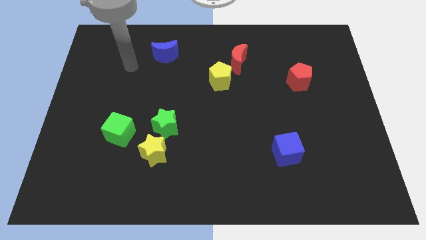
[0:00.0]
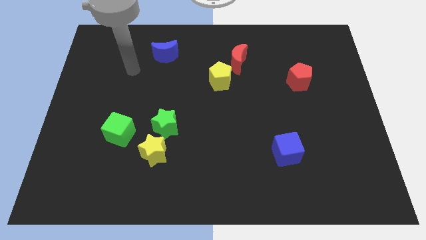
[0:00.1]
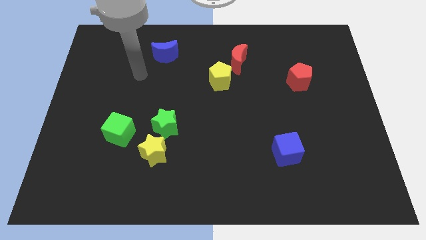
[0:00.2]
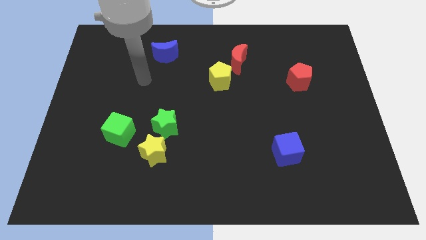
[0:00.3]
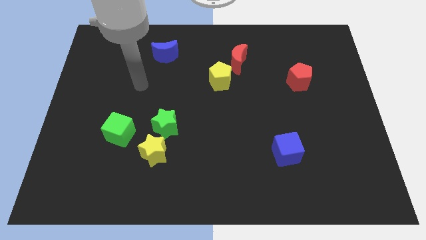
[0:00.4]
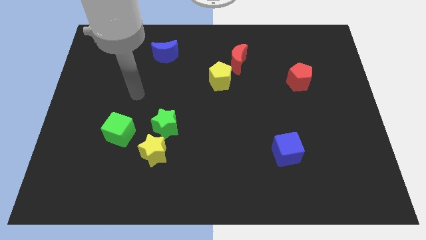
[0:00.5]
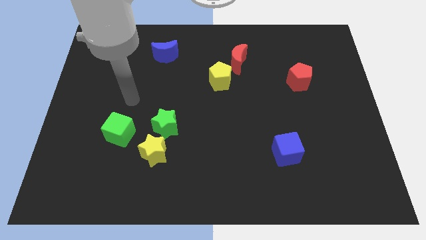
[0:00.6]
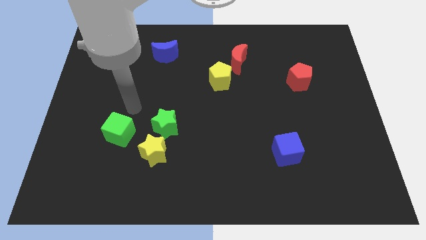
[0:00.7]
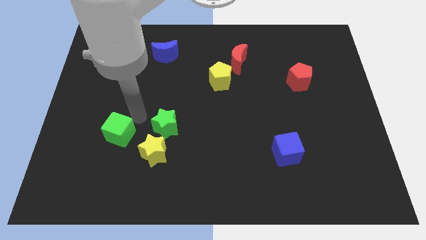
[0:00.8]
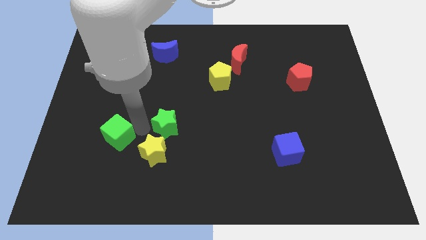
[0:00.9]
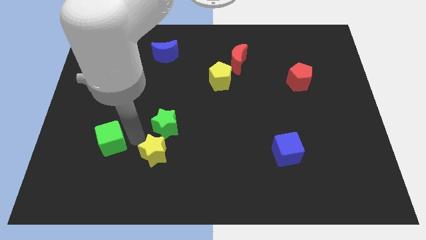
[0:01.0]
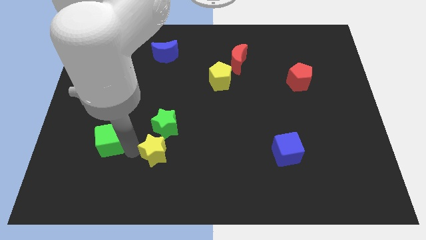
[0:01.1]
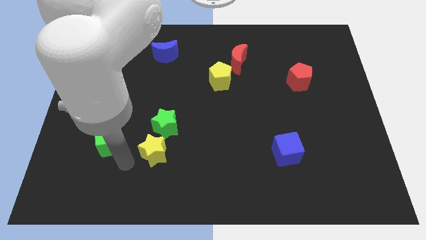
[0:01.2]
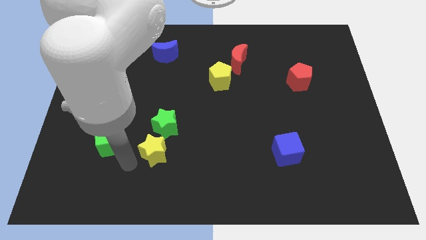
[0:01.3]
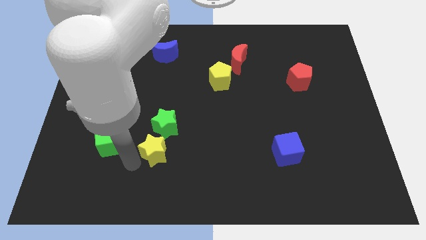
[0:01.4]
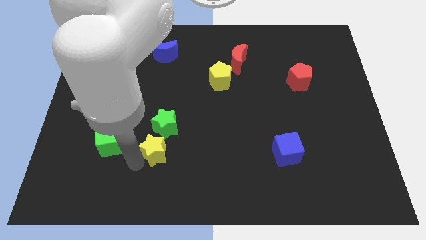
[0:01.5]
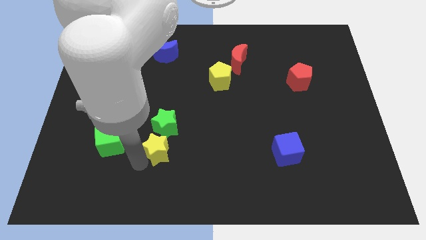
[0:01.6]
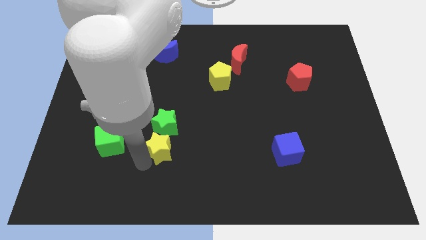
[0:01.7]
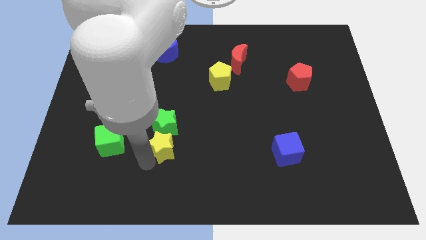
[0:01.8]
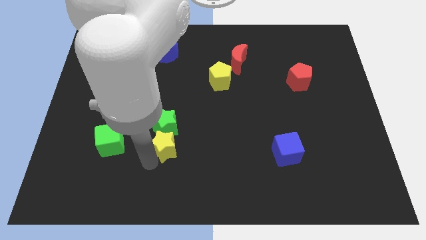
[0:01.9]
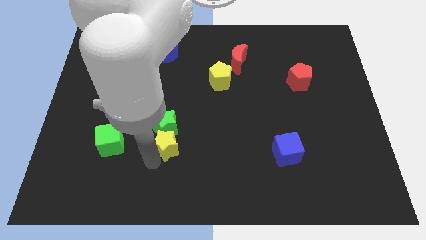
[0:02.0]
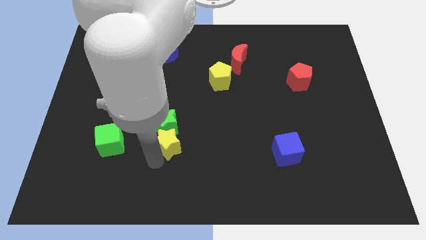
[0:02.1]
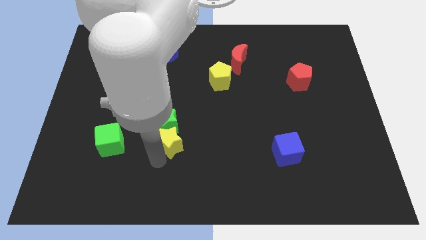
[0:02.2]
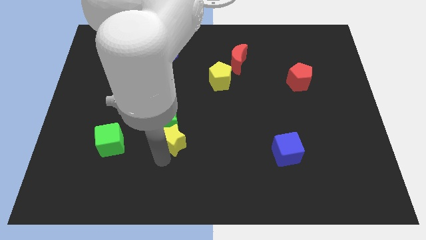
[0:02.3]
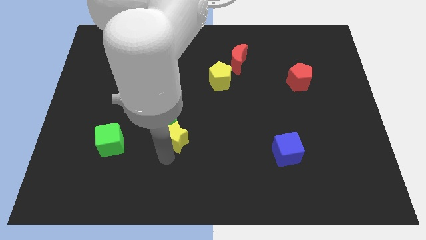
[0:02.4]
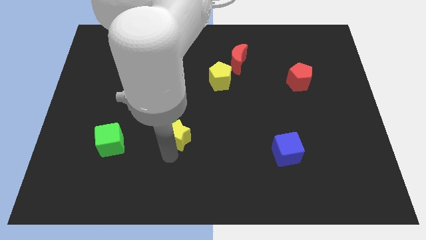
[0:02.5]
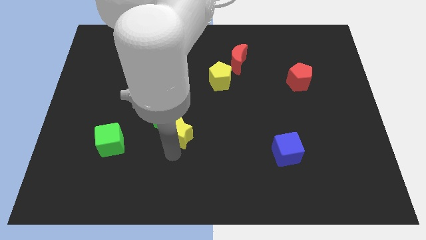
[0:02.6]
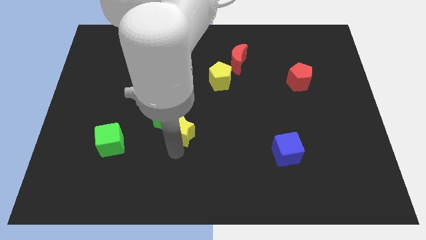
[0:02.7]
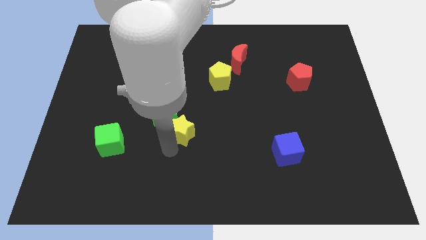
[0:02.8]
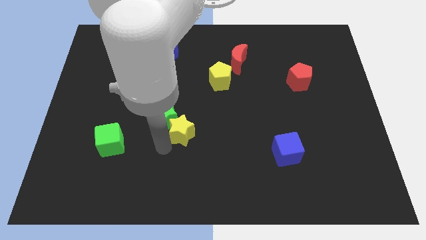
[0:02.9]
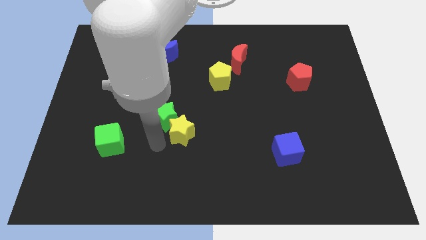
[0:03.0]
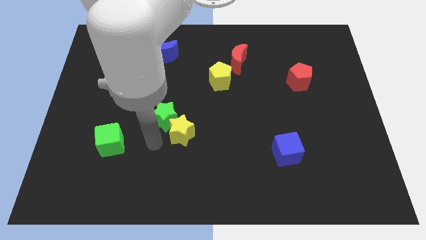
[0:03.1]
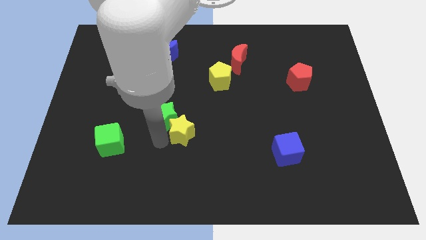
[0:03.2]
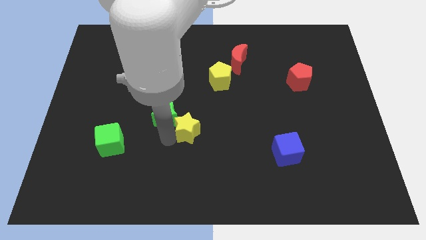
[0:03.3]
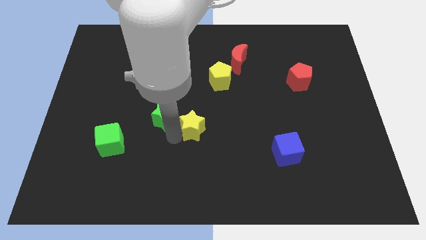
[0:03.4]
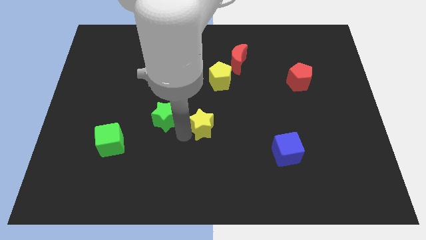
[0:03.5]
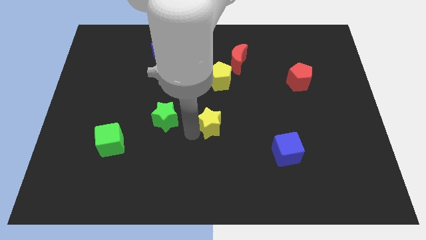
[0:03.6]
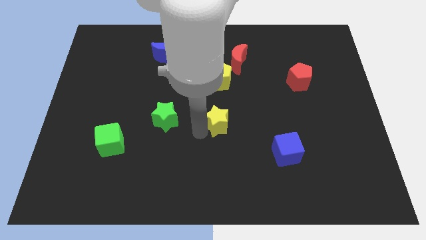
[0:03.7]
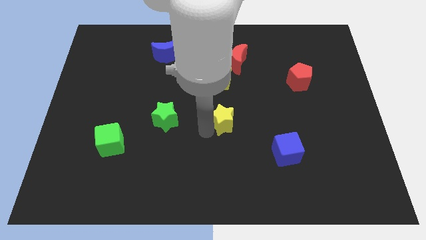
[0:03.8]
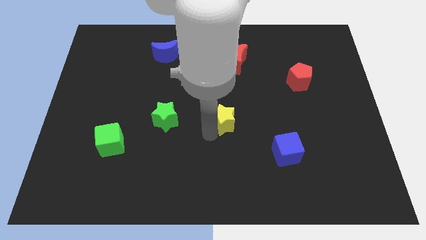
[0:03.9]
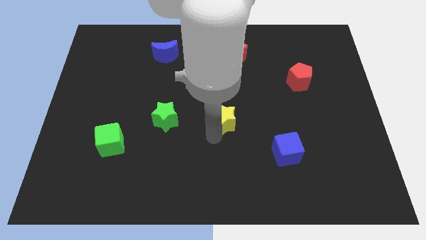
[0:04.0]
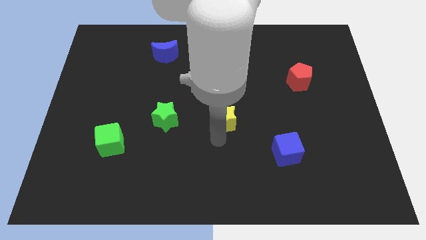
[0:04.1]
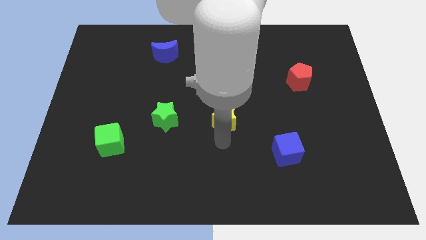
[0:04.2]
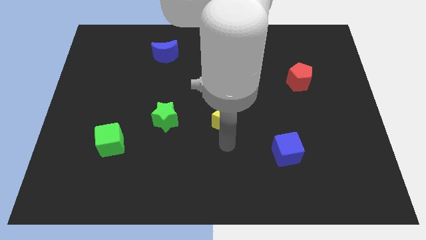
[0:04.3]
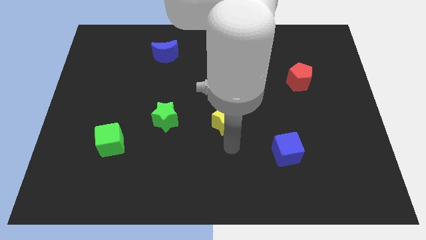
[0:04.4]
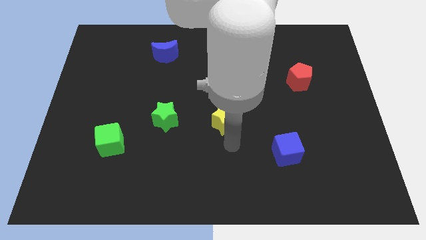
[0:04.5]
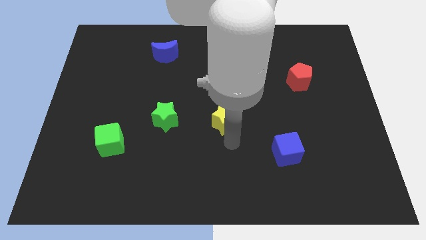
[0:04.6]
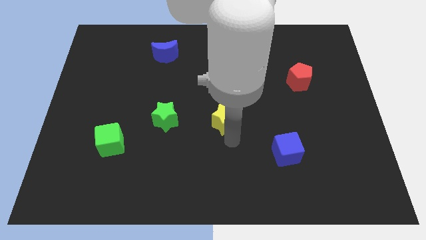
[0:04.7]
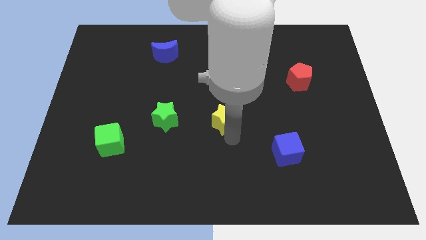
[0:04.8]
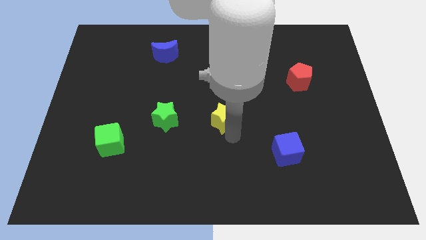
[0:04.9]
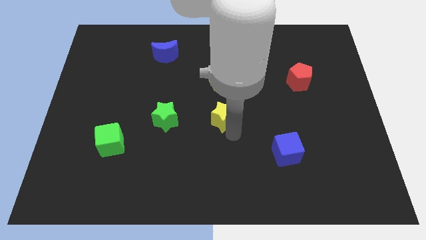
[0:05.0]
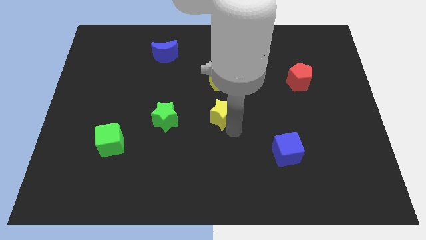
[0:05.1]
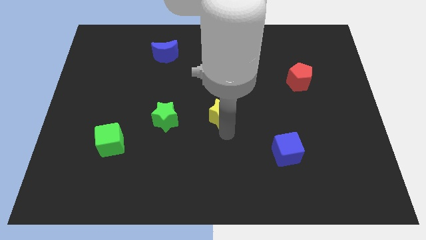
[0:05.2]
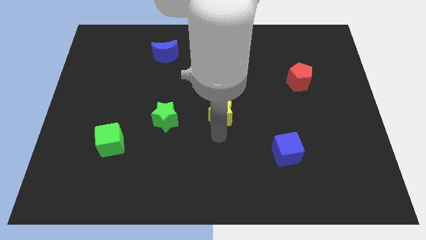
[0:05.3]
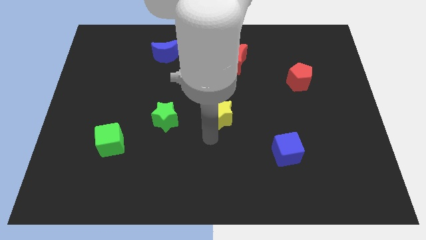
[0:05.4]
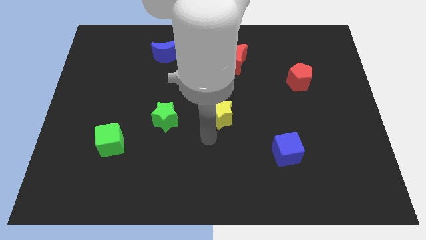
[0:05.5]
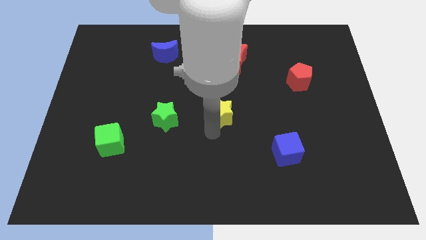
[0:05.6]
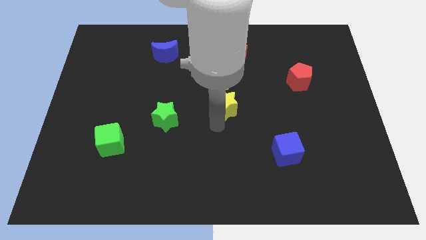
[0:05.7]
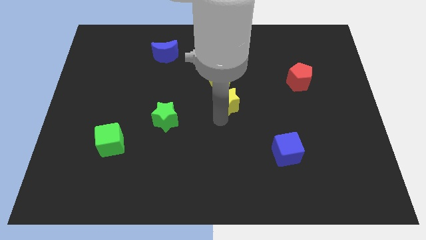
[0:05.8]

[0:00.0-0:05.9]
push the yellow star to the bottom of the red moon

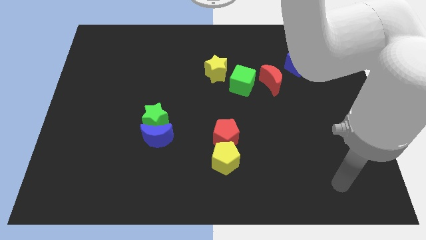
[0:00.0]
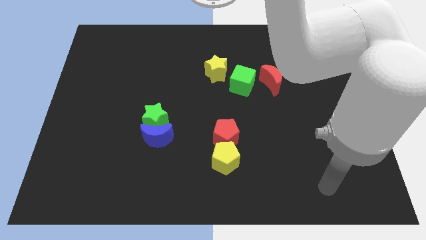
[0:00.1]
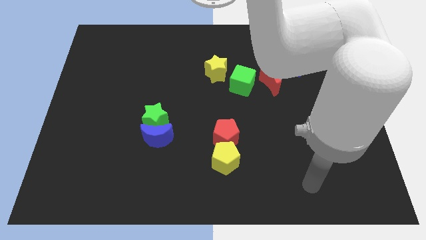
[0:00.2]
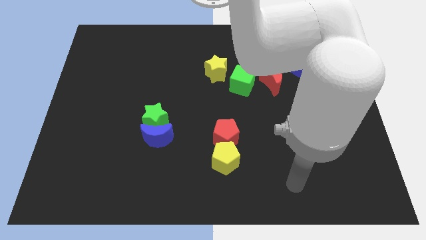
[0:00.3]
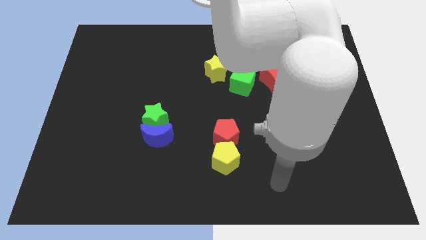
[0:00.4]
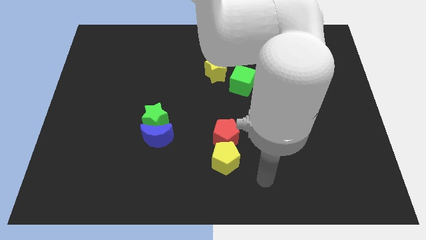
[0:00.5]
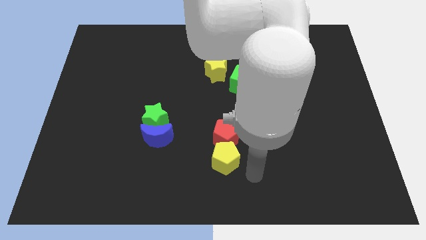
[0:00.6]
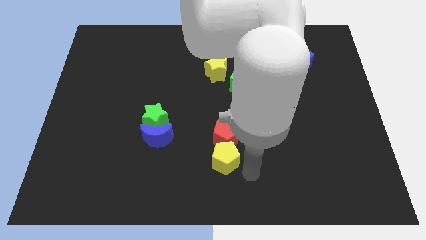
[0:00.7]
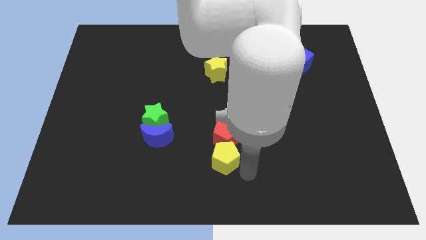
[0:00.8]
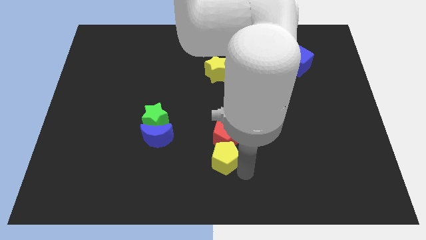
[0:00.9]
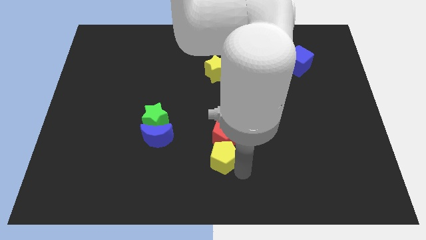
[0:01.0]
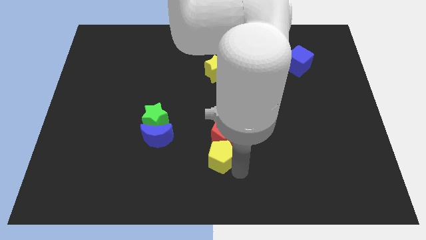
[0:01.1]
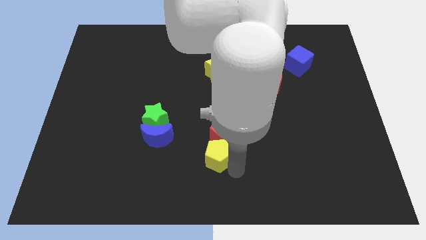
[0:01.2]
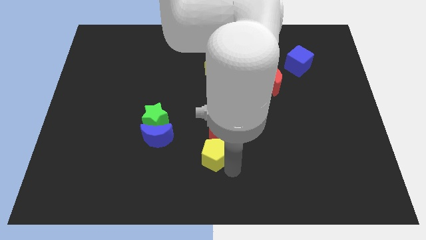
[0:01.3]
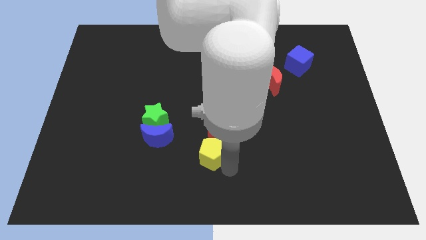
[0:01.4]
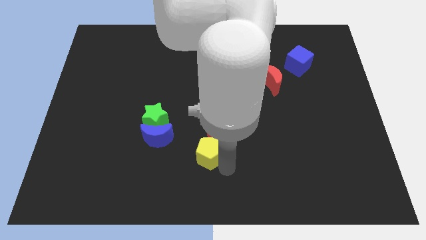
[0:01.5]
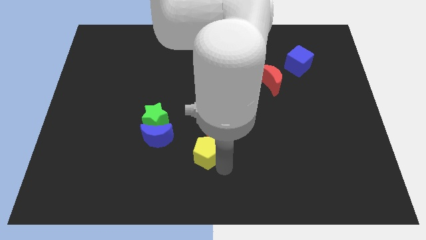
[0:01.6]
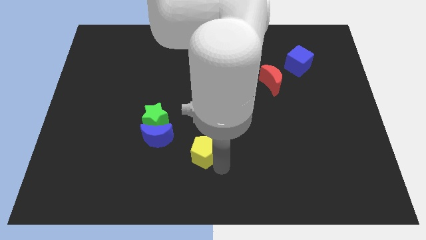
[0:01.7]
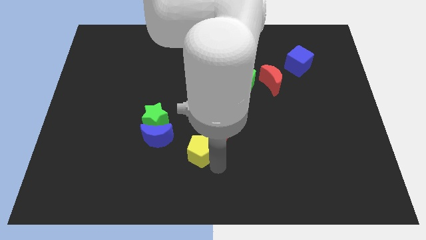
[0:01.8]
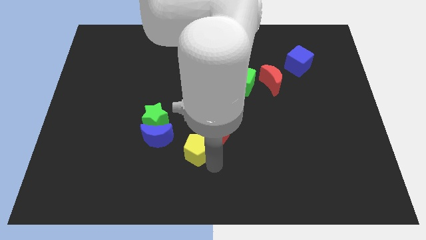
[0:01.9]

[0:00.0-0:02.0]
push the yellow pentagon to the bottom right of the green star
